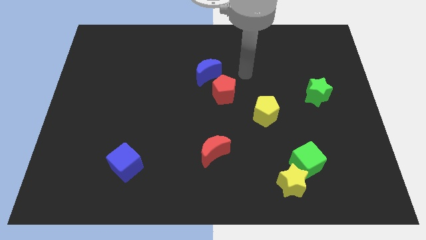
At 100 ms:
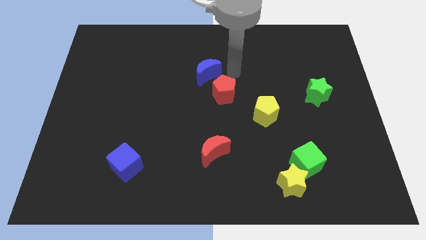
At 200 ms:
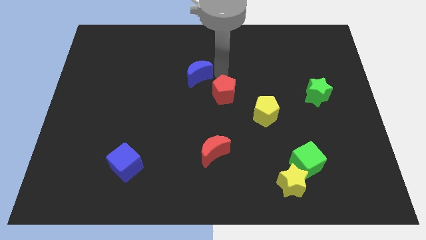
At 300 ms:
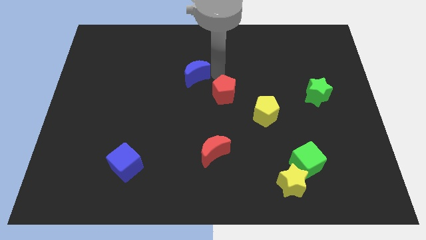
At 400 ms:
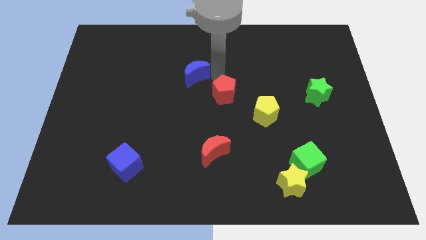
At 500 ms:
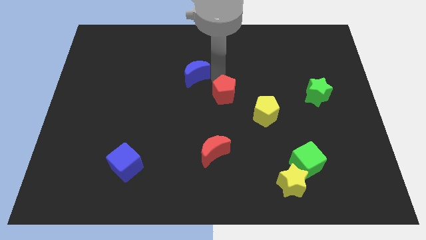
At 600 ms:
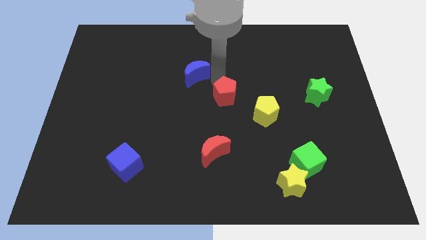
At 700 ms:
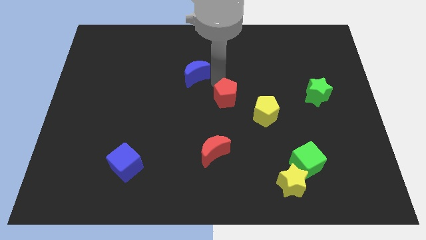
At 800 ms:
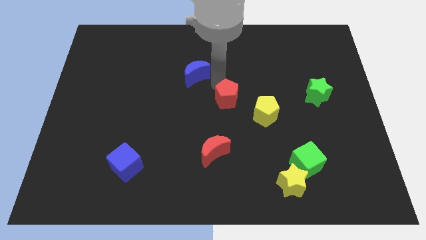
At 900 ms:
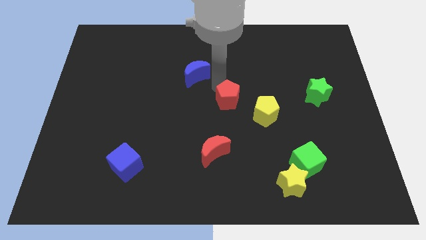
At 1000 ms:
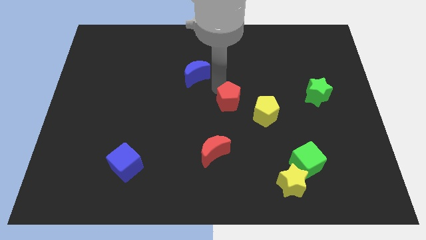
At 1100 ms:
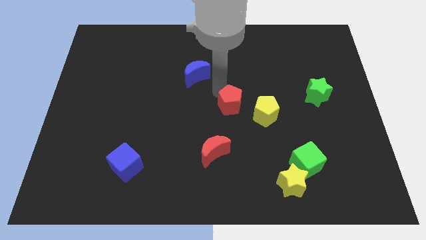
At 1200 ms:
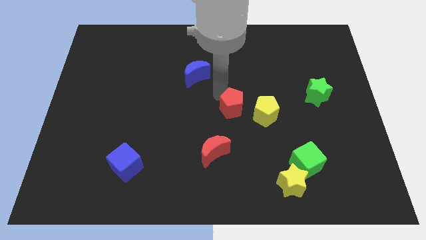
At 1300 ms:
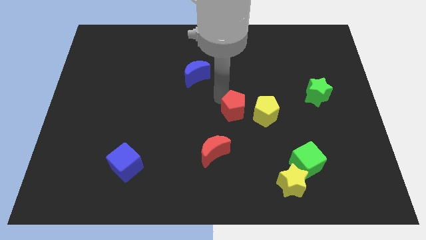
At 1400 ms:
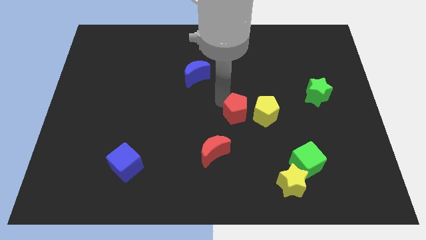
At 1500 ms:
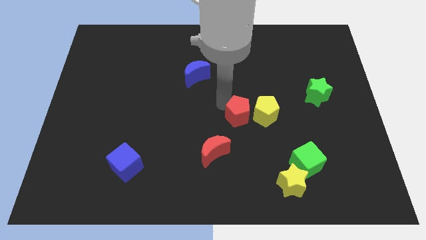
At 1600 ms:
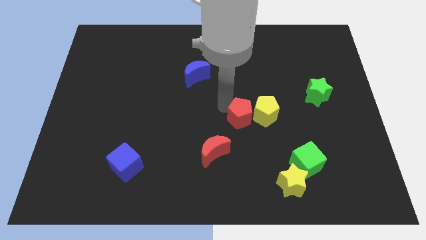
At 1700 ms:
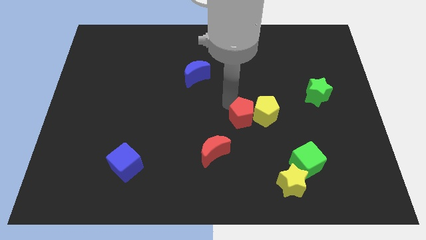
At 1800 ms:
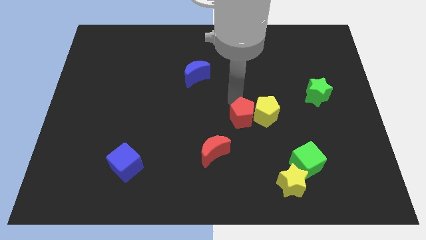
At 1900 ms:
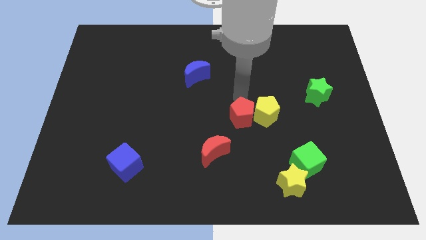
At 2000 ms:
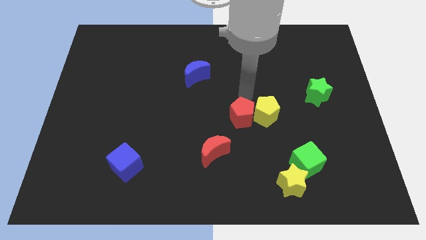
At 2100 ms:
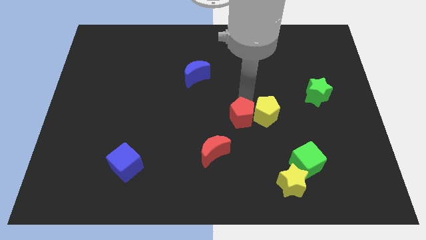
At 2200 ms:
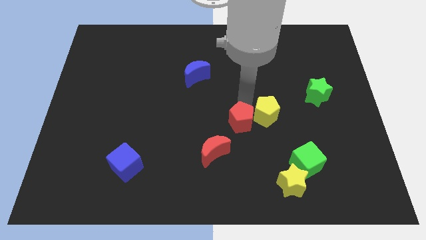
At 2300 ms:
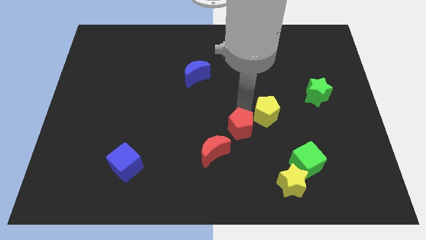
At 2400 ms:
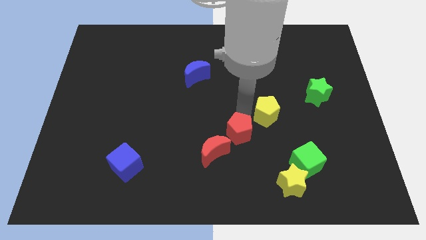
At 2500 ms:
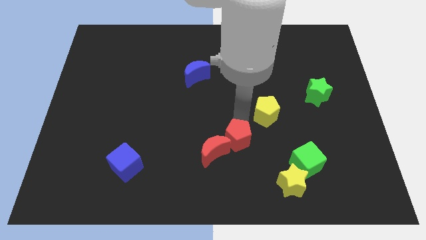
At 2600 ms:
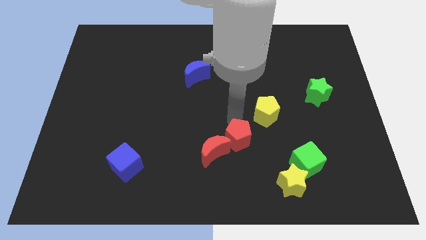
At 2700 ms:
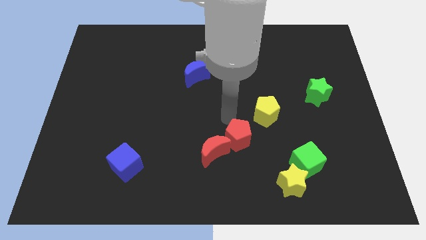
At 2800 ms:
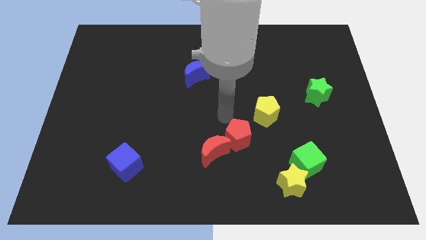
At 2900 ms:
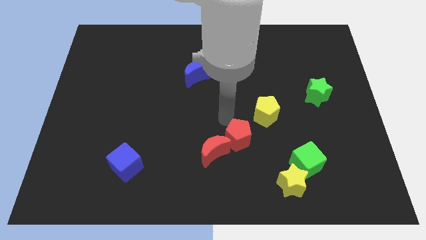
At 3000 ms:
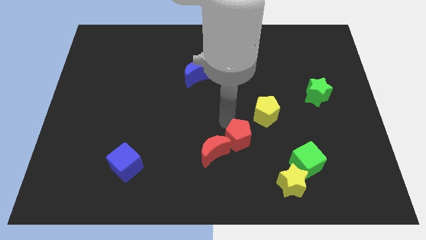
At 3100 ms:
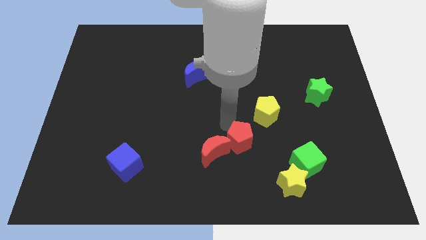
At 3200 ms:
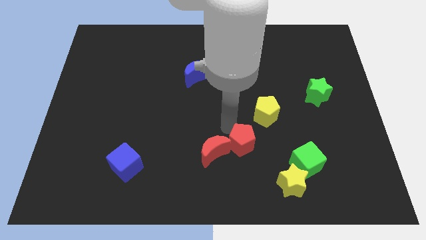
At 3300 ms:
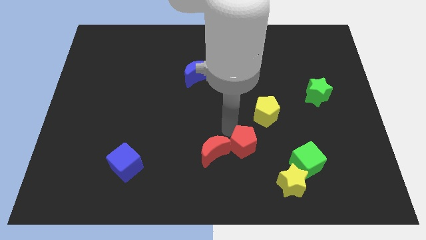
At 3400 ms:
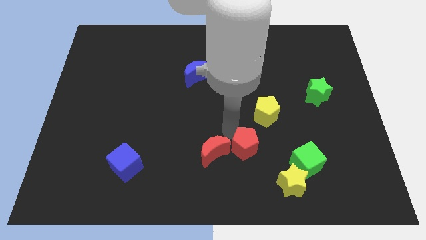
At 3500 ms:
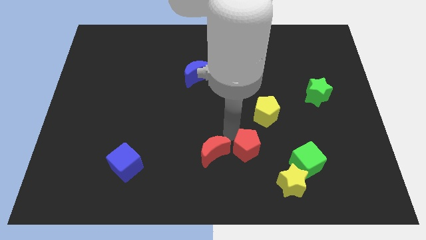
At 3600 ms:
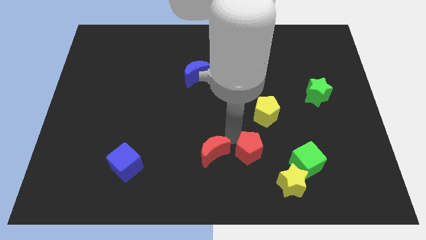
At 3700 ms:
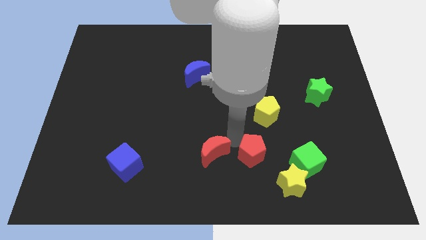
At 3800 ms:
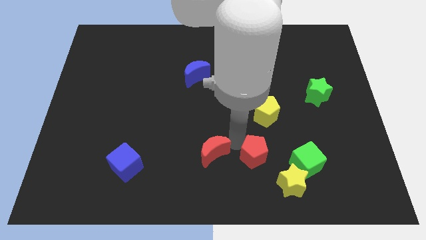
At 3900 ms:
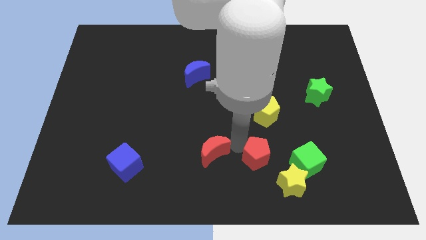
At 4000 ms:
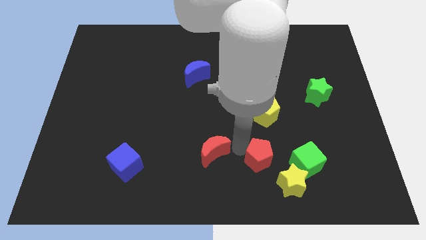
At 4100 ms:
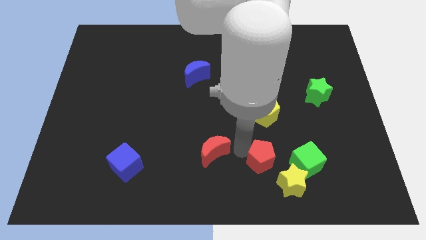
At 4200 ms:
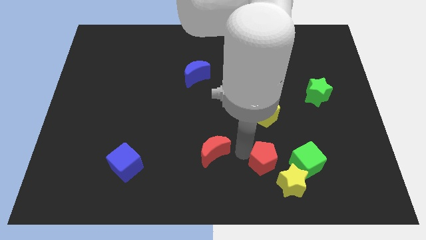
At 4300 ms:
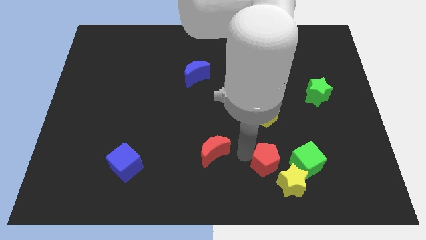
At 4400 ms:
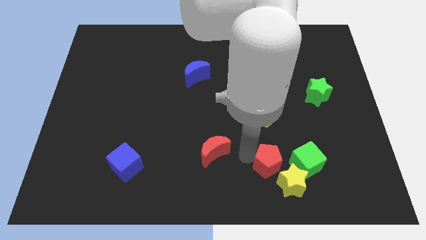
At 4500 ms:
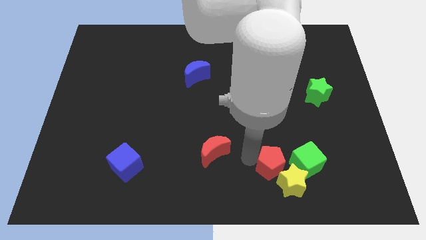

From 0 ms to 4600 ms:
move the red pentagon next to the yellow star

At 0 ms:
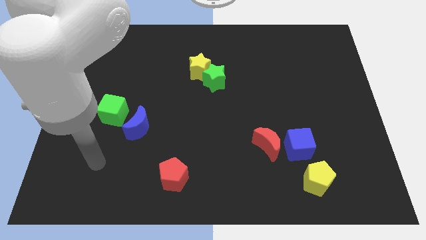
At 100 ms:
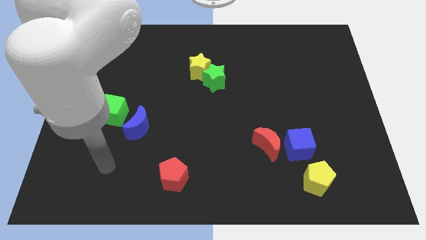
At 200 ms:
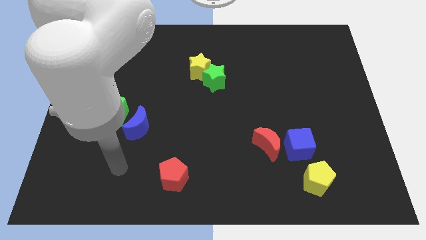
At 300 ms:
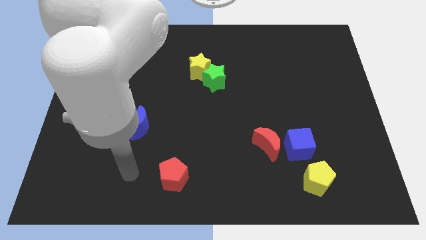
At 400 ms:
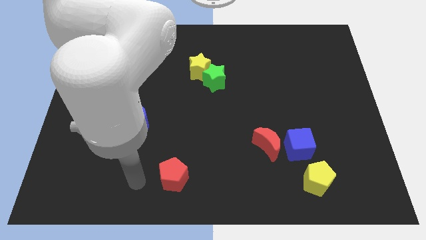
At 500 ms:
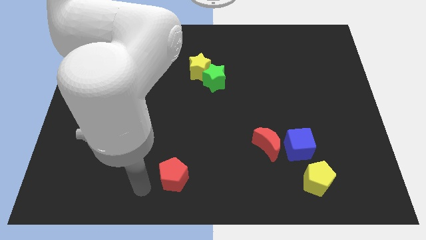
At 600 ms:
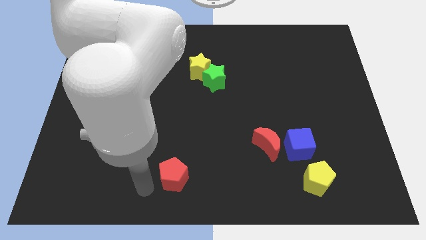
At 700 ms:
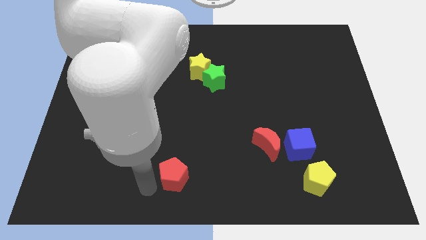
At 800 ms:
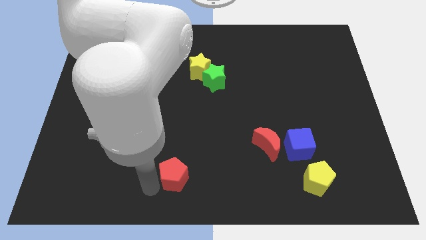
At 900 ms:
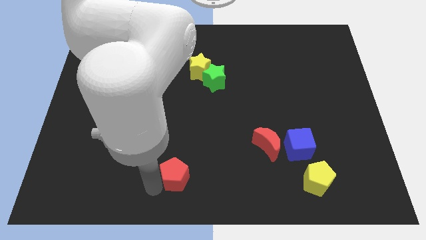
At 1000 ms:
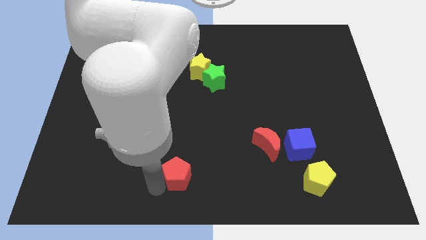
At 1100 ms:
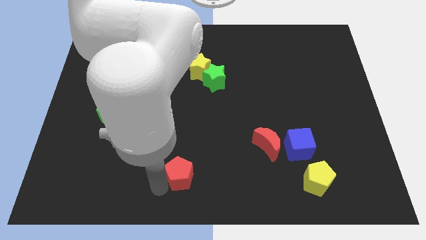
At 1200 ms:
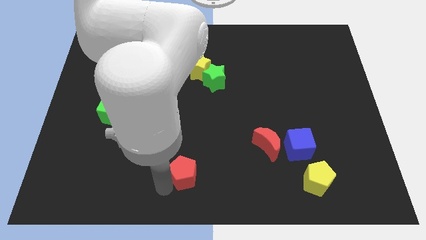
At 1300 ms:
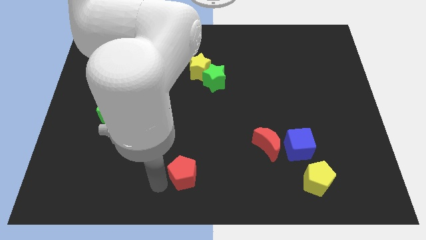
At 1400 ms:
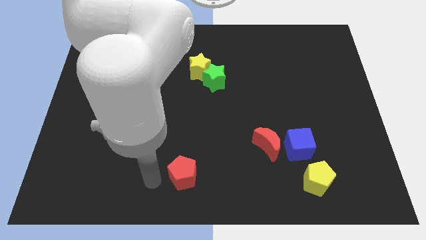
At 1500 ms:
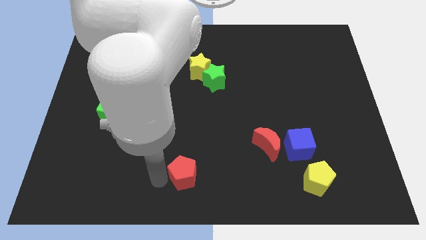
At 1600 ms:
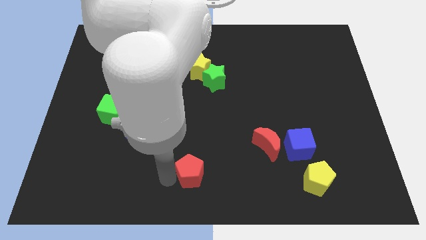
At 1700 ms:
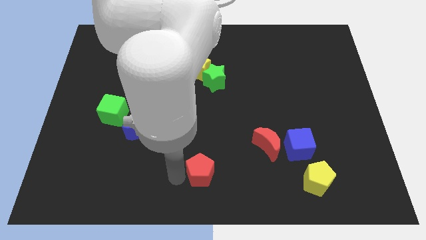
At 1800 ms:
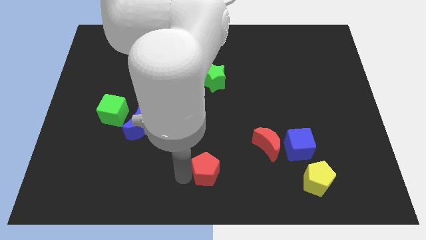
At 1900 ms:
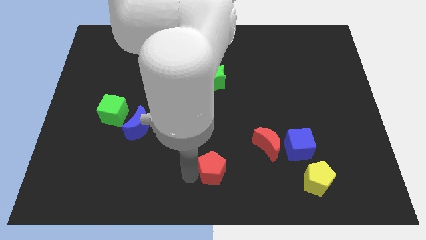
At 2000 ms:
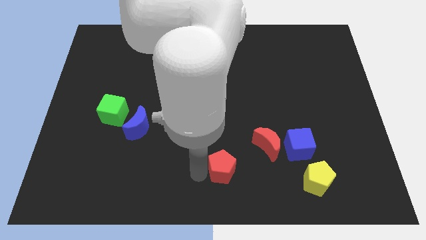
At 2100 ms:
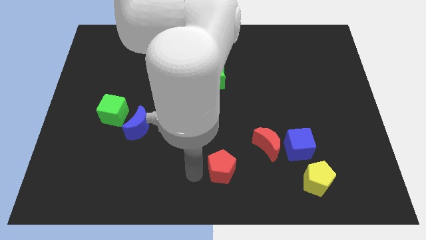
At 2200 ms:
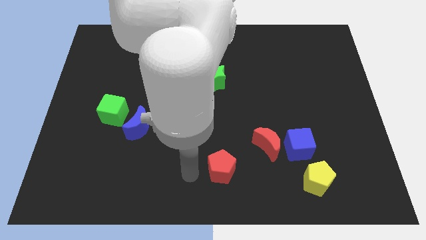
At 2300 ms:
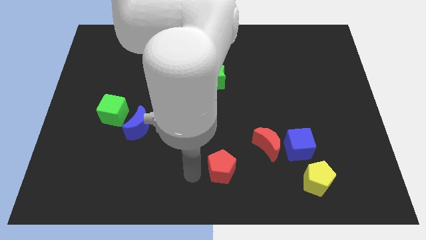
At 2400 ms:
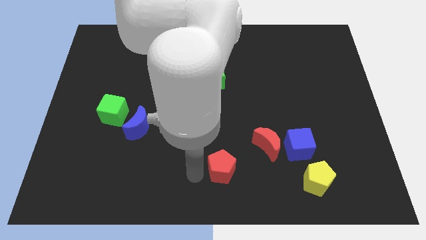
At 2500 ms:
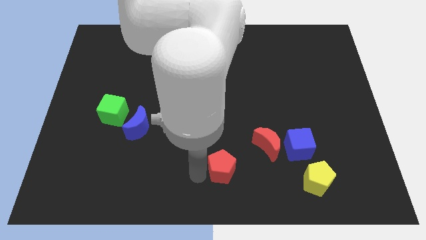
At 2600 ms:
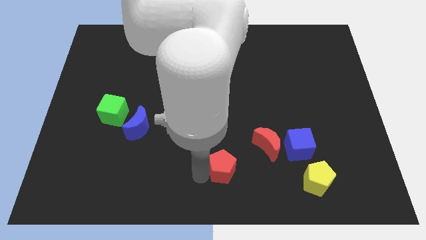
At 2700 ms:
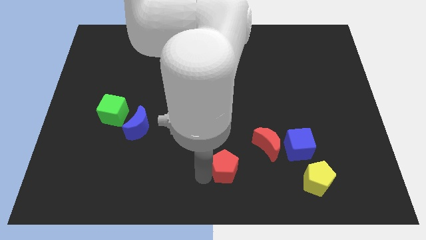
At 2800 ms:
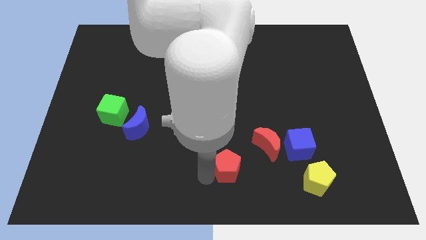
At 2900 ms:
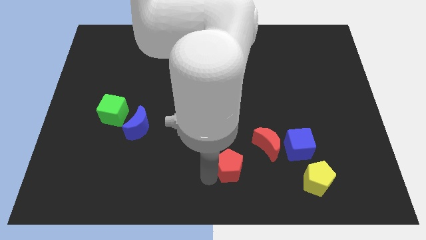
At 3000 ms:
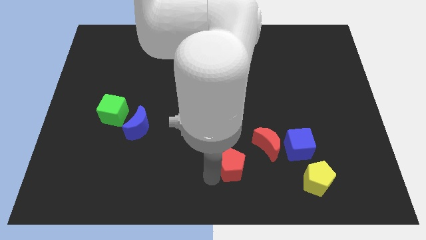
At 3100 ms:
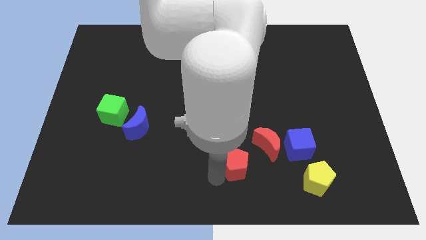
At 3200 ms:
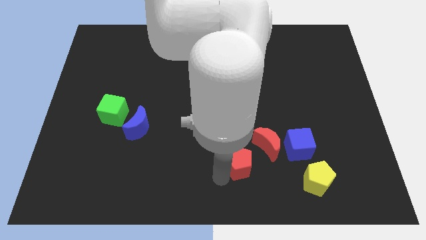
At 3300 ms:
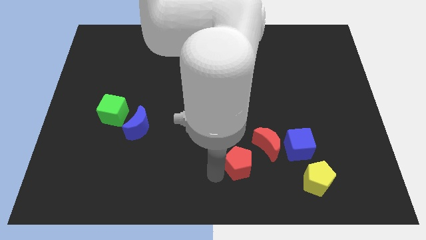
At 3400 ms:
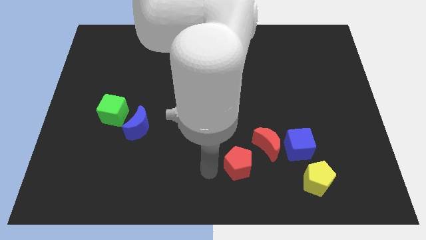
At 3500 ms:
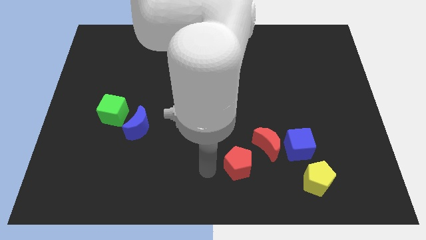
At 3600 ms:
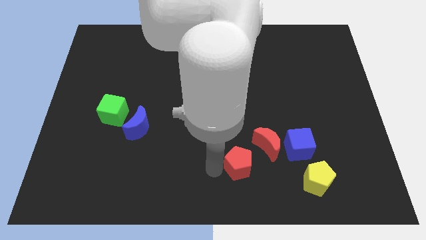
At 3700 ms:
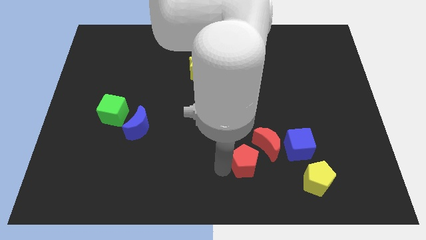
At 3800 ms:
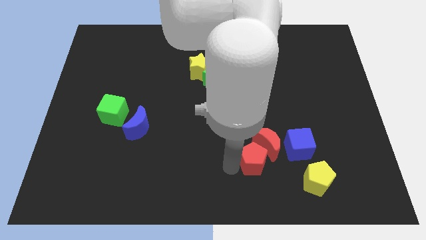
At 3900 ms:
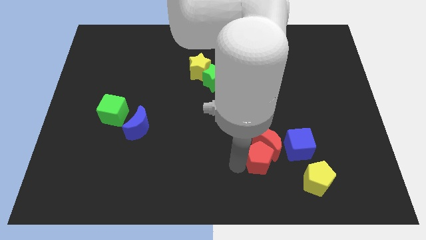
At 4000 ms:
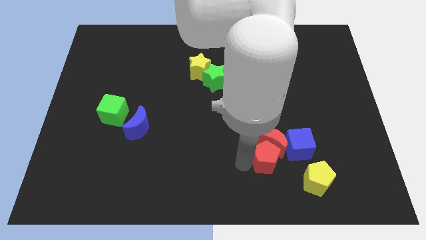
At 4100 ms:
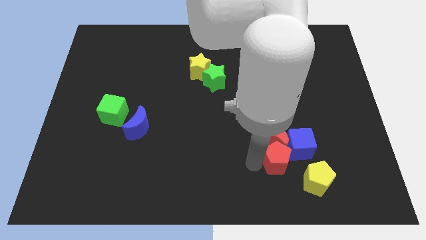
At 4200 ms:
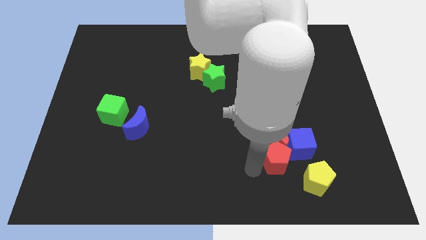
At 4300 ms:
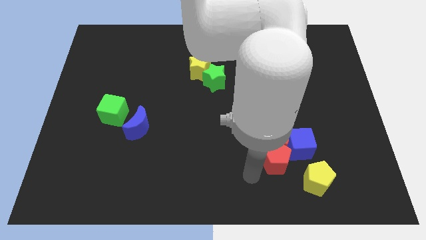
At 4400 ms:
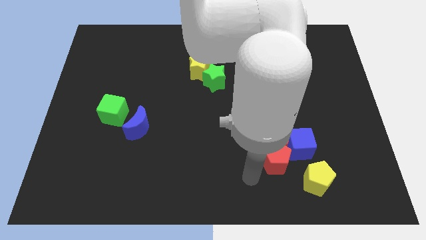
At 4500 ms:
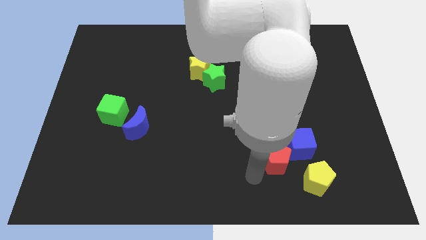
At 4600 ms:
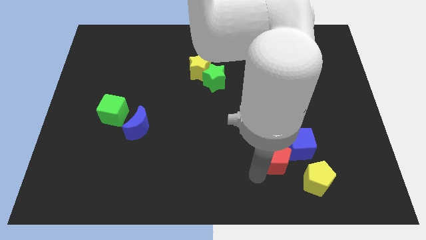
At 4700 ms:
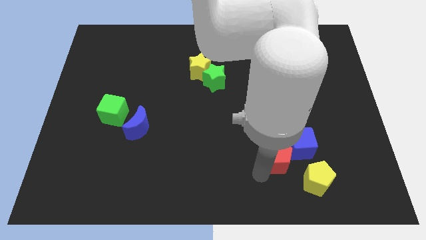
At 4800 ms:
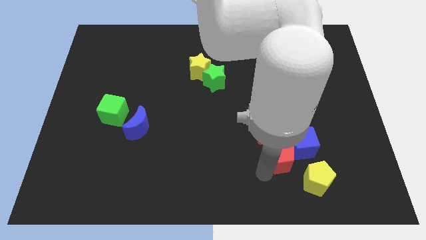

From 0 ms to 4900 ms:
put the red pentagon to the blue cube
